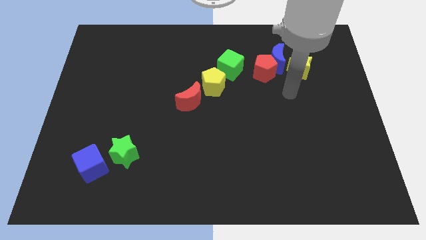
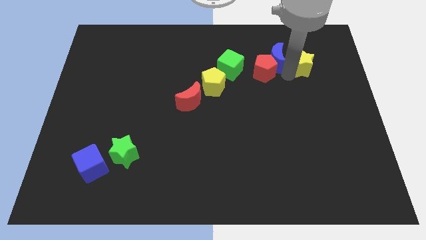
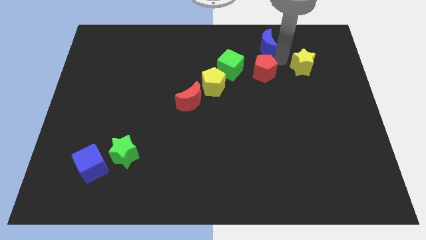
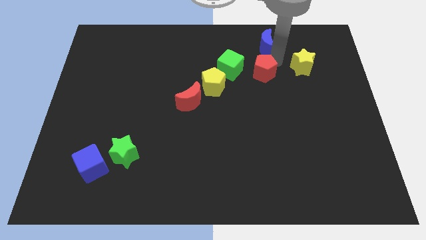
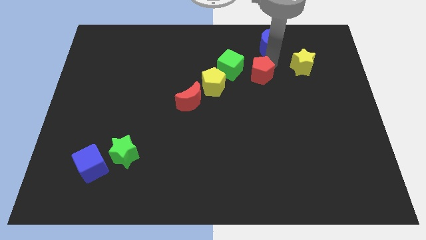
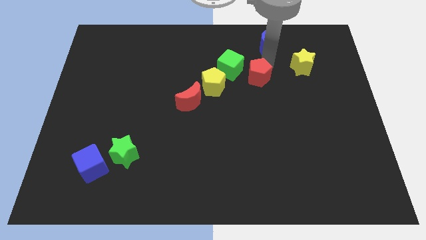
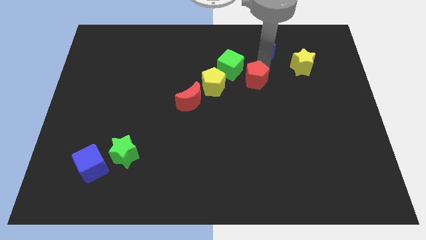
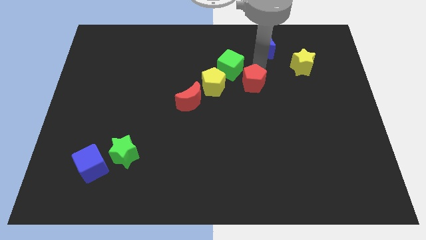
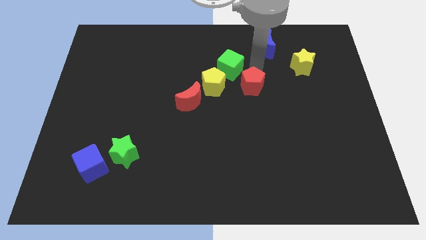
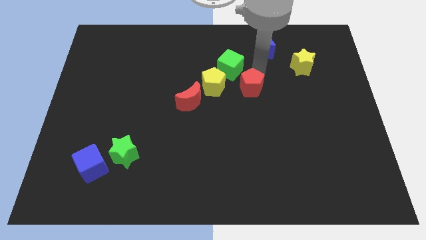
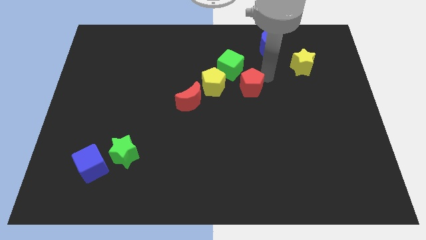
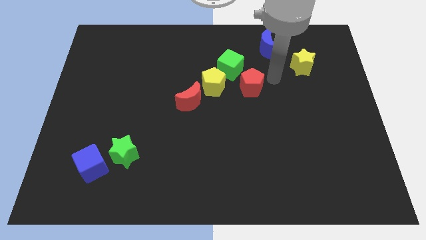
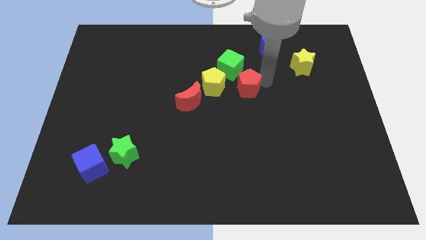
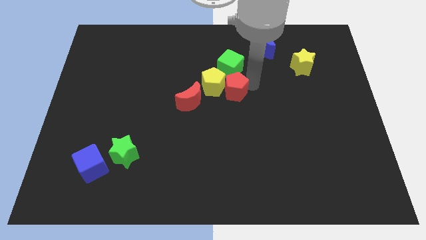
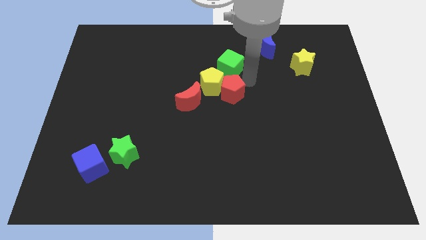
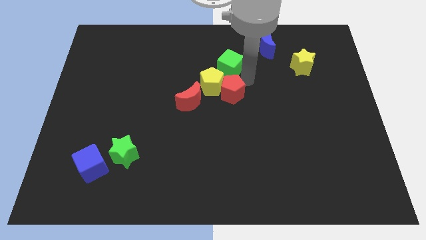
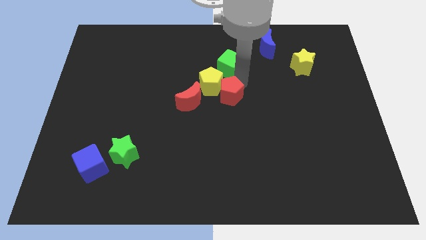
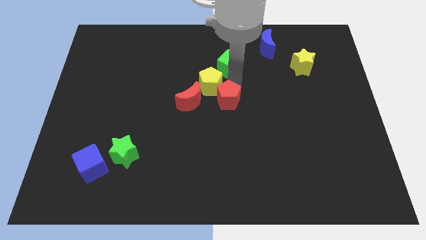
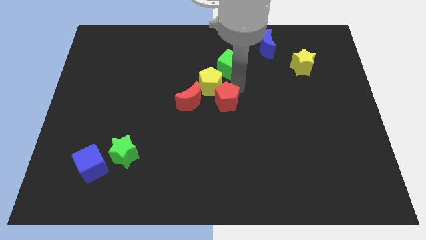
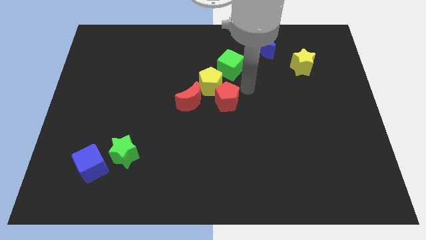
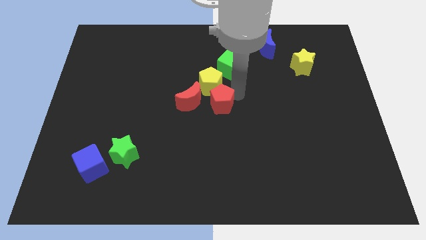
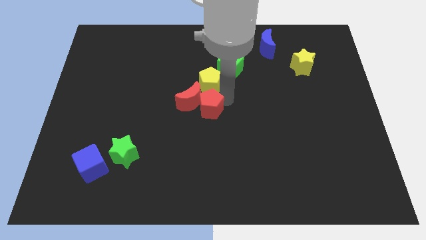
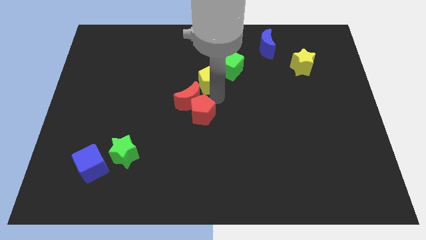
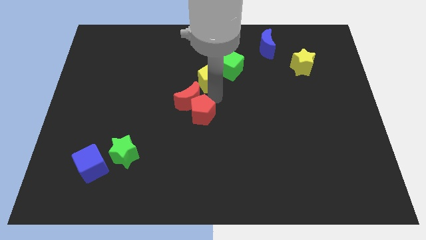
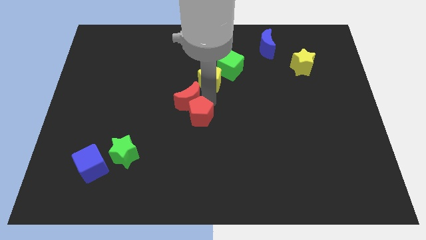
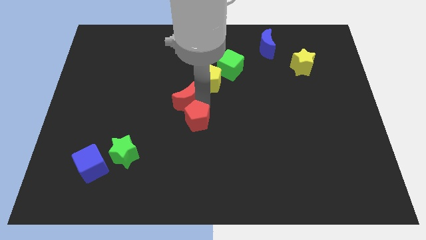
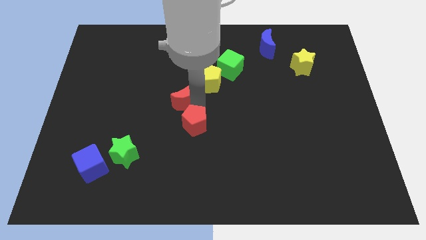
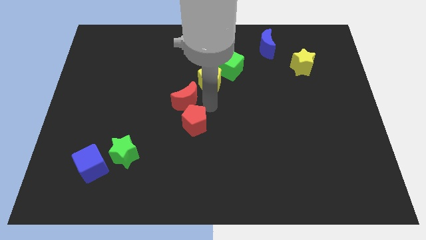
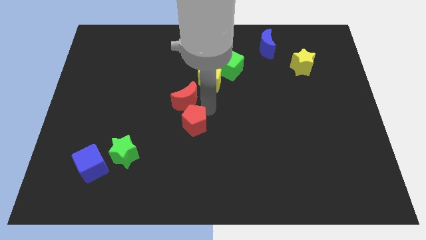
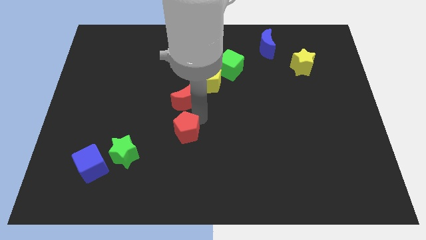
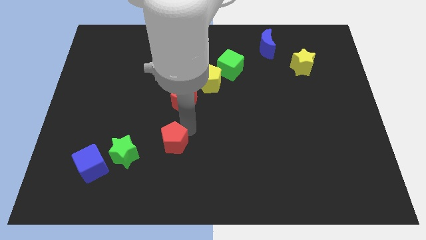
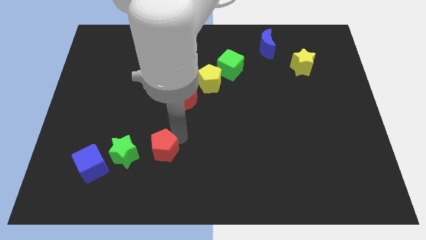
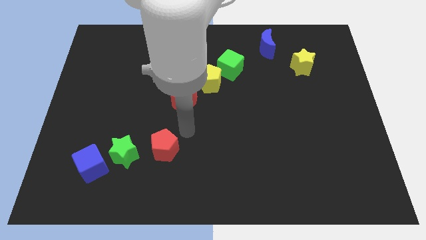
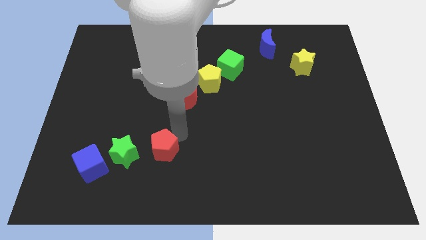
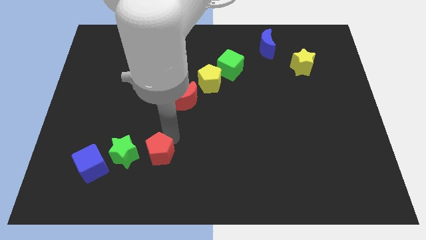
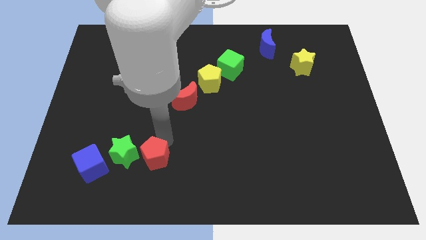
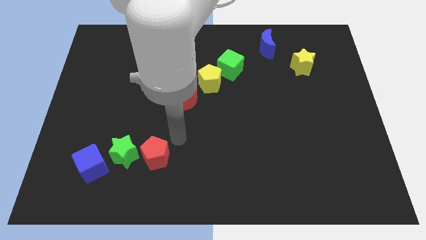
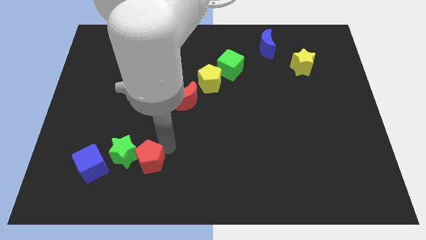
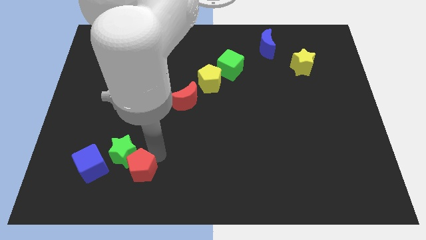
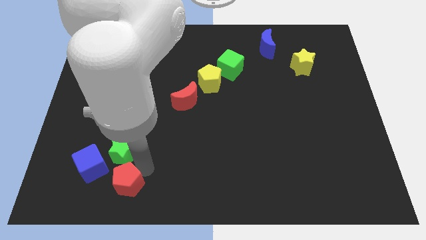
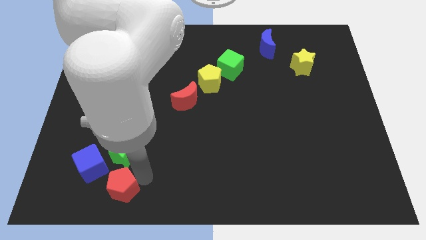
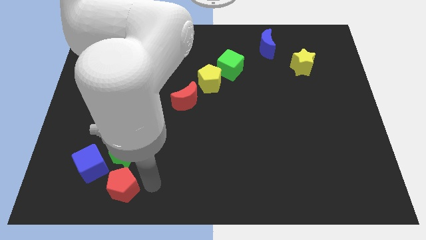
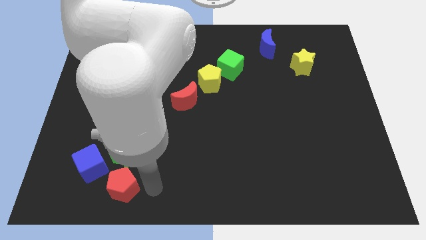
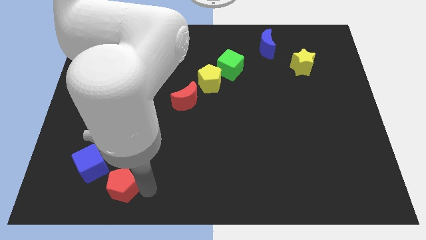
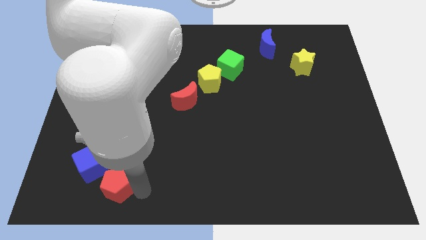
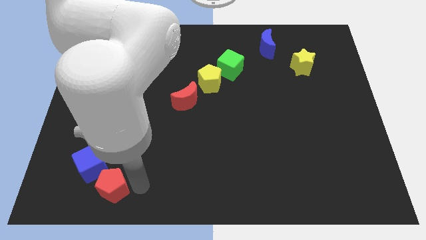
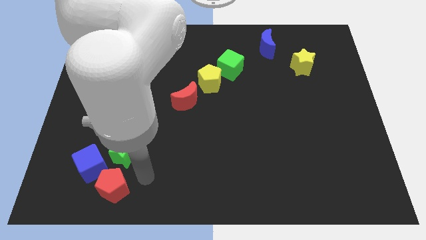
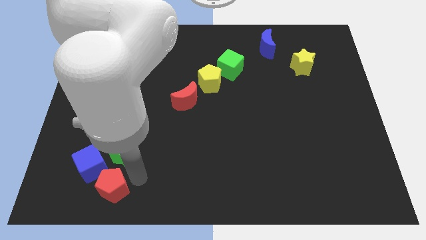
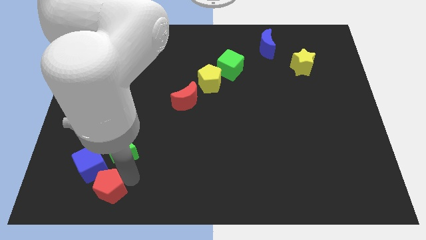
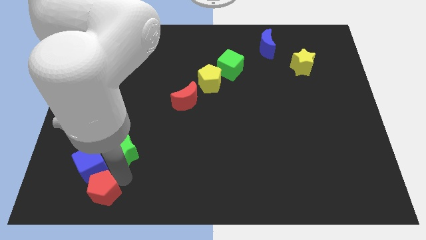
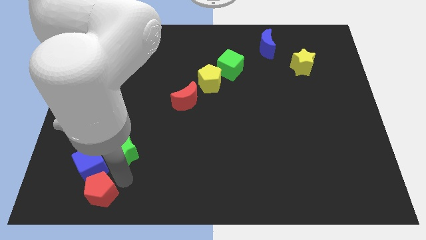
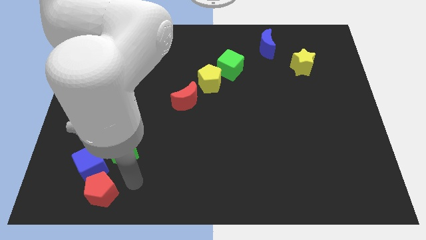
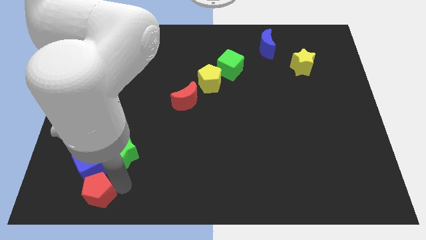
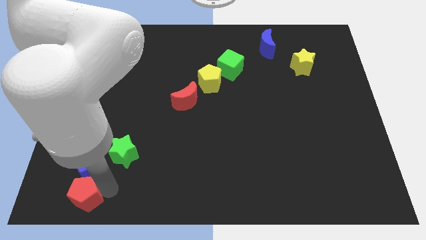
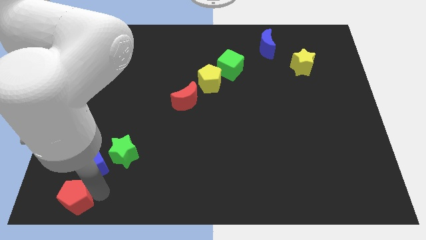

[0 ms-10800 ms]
push the red pentagon to the bottom left corner

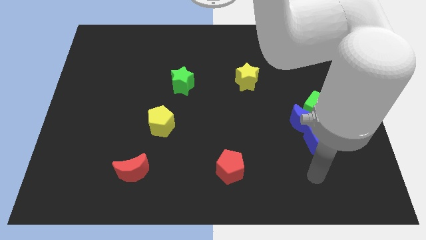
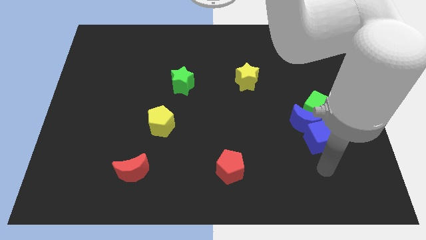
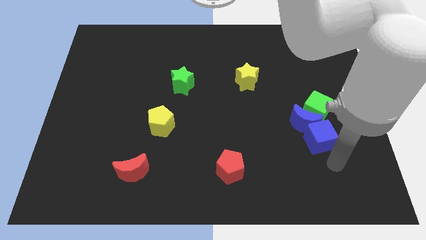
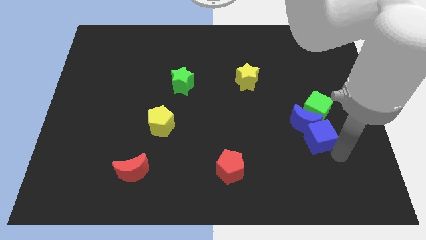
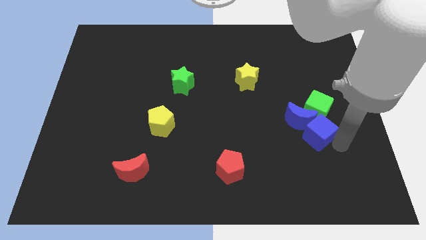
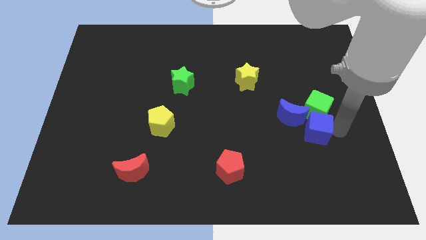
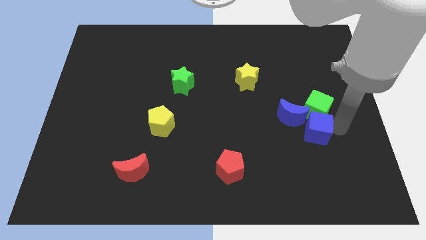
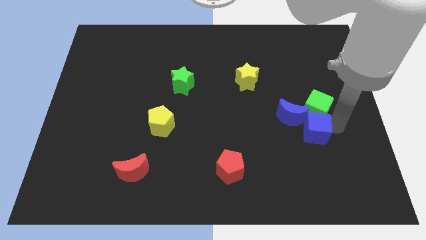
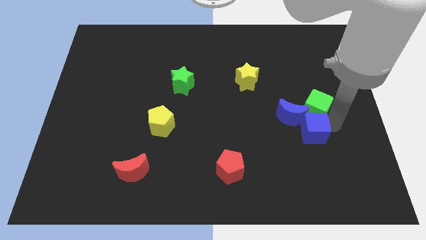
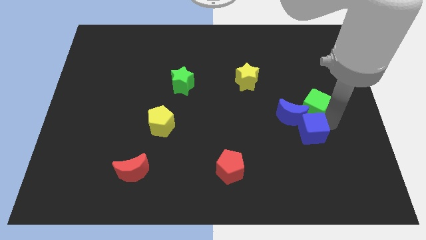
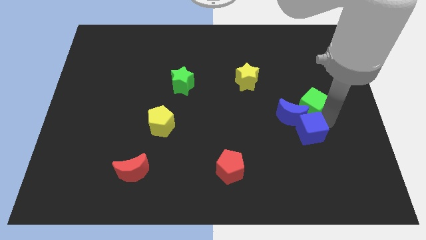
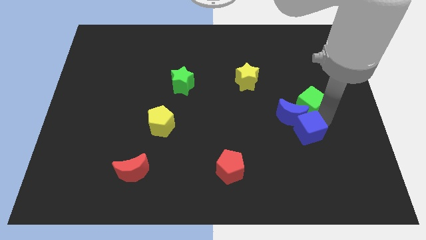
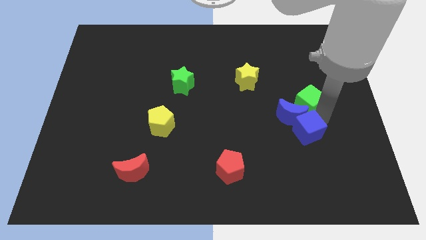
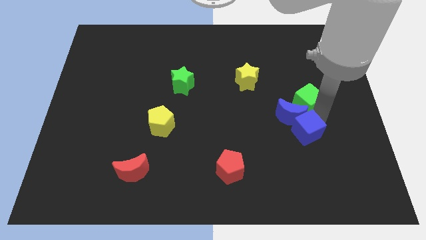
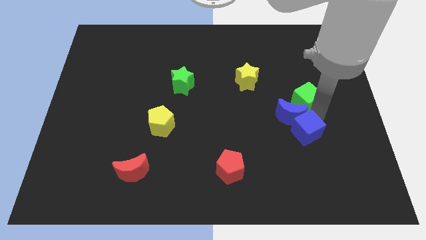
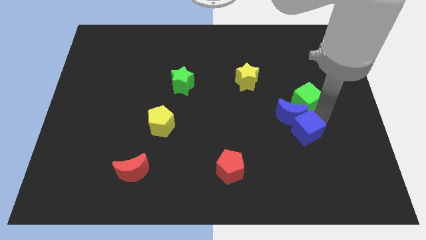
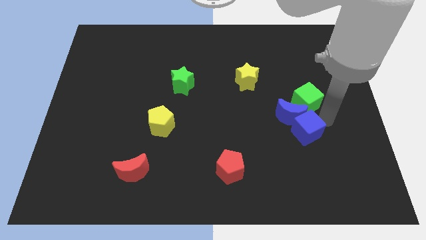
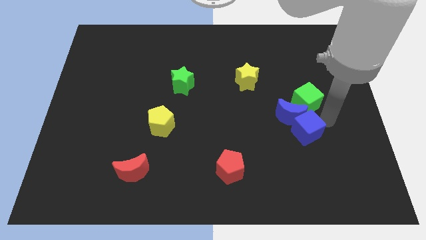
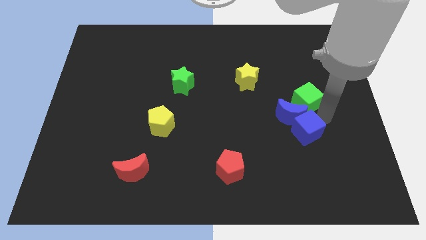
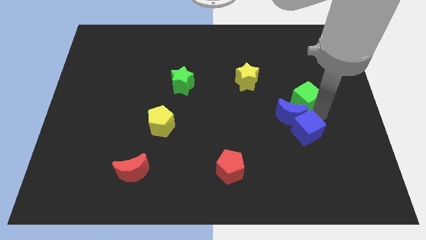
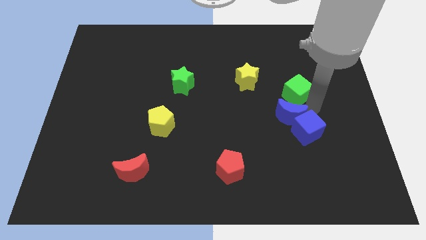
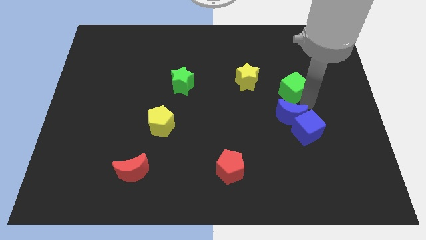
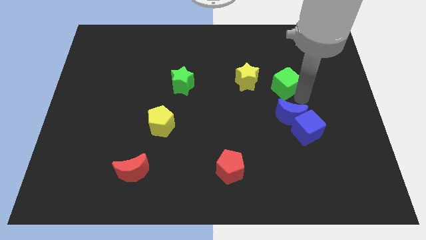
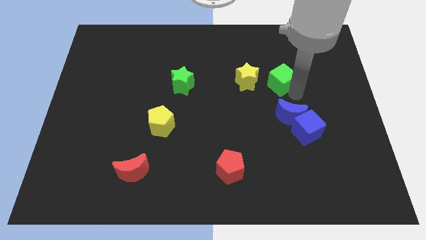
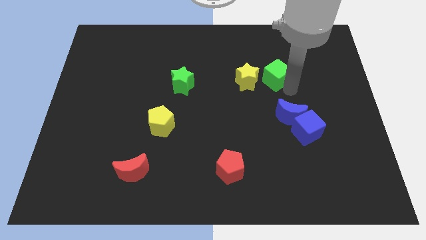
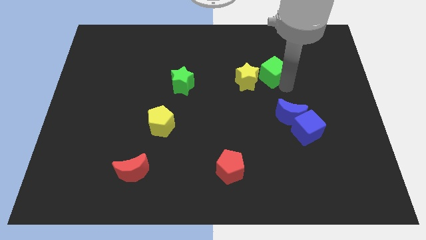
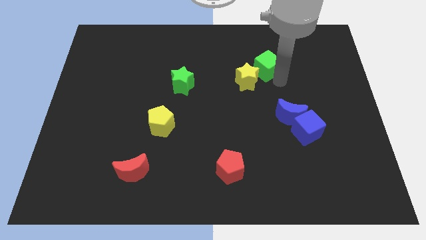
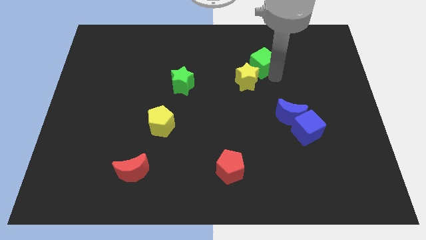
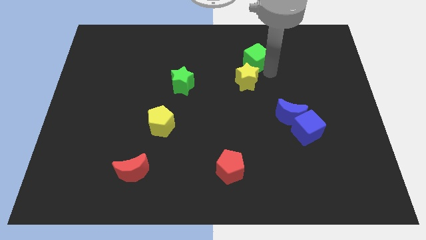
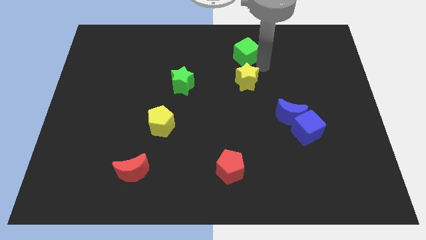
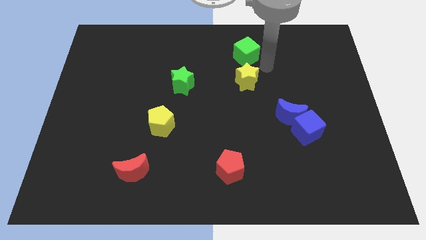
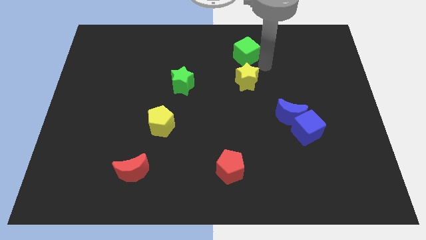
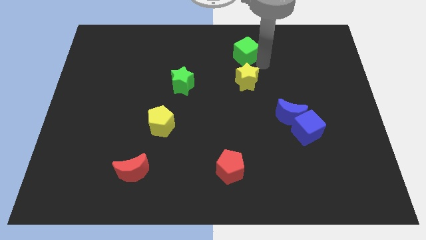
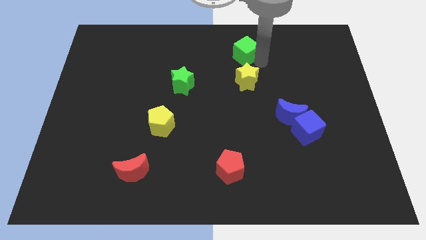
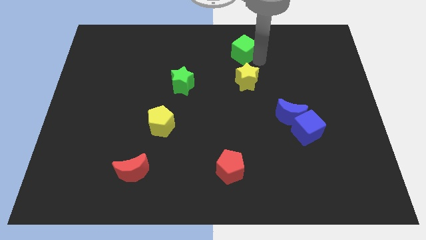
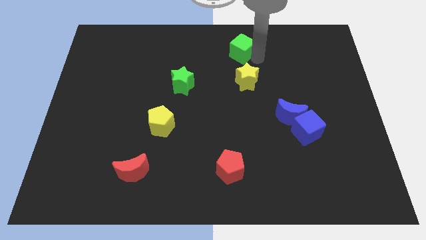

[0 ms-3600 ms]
move the green cube to the top side
